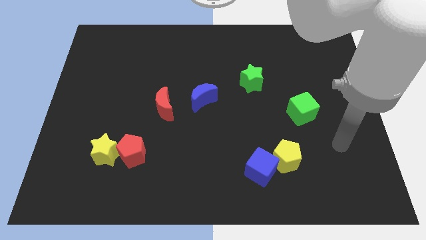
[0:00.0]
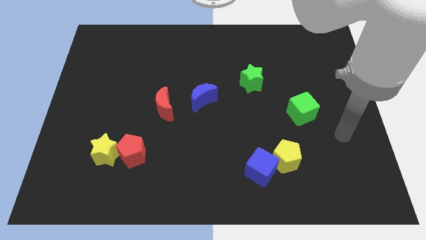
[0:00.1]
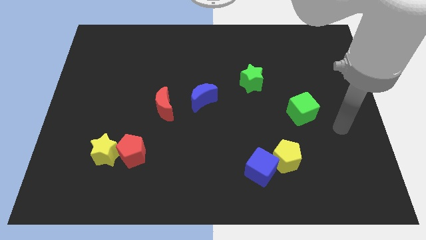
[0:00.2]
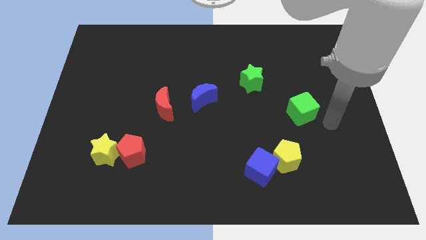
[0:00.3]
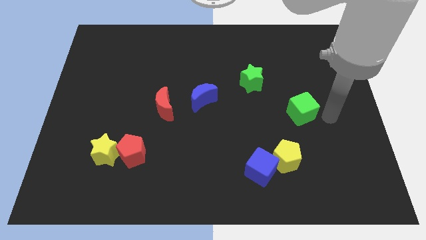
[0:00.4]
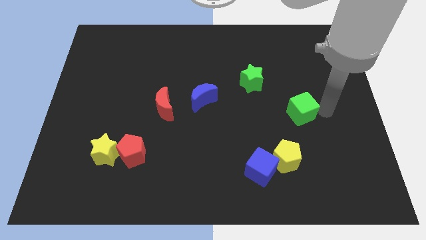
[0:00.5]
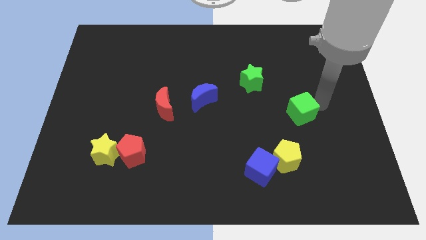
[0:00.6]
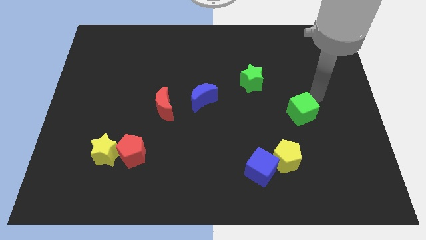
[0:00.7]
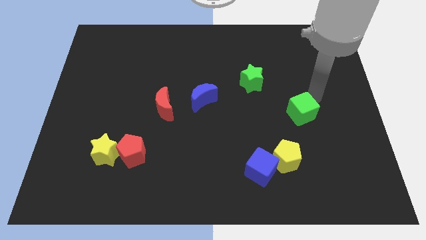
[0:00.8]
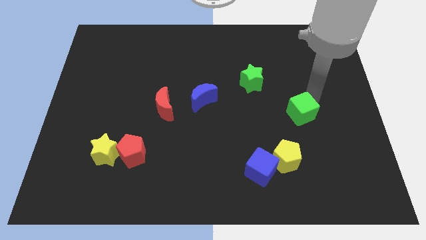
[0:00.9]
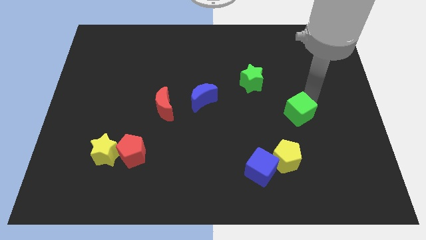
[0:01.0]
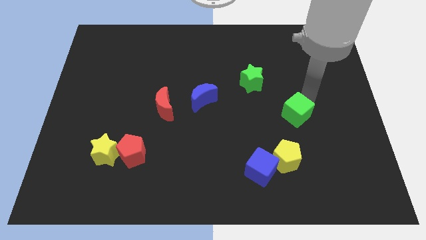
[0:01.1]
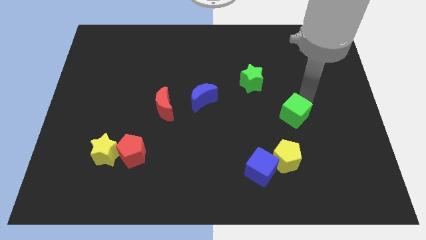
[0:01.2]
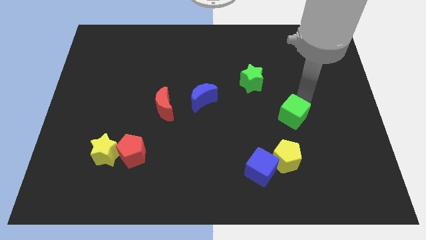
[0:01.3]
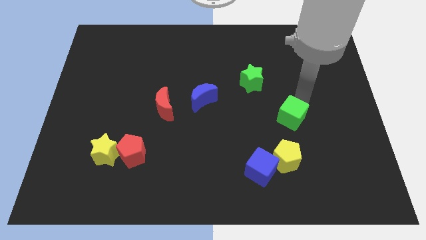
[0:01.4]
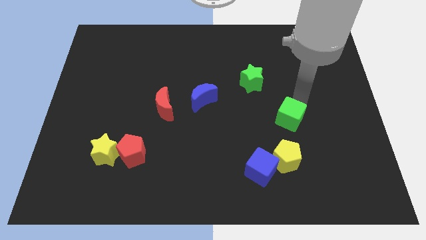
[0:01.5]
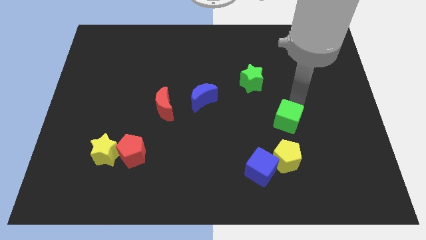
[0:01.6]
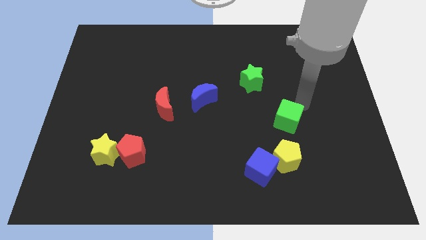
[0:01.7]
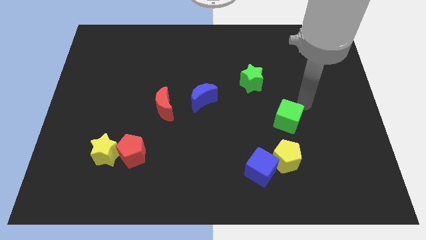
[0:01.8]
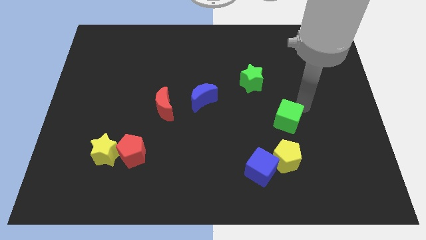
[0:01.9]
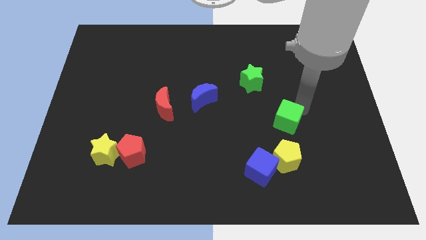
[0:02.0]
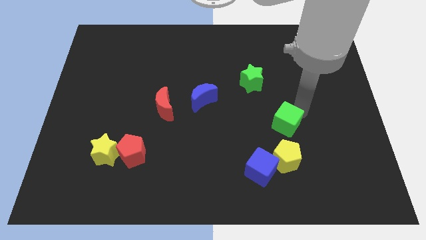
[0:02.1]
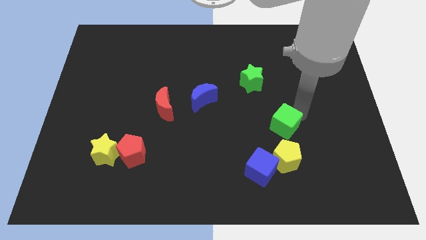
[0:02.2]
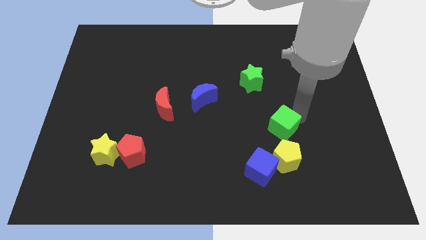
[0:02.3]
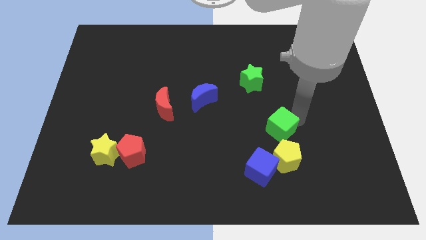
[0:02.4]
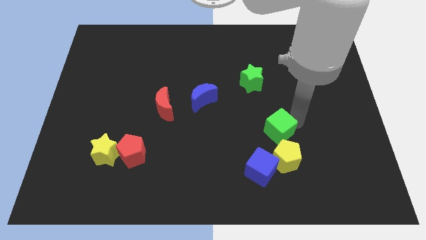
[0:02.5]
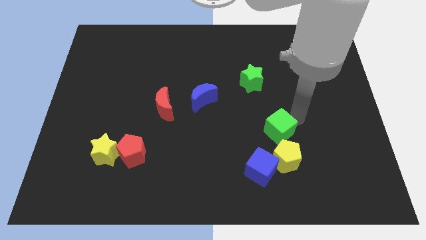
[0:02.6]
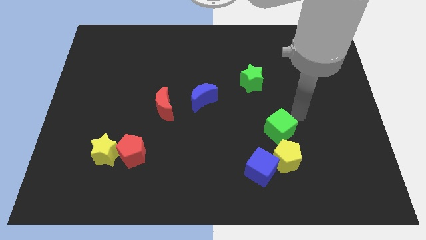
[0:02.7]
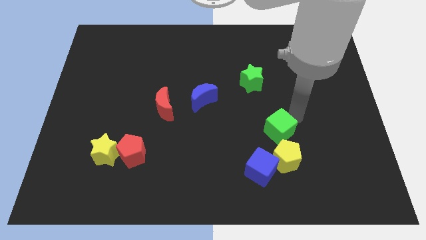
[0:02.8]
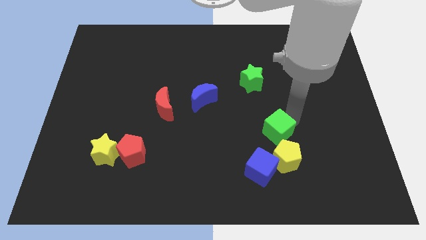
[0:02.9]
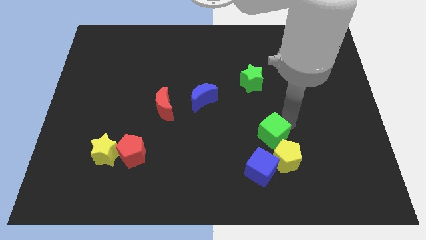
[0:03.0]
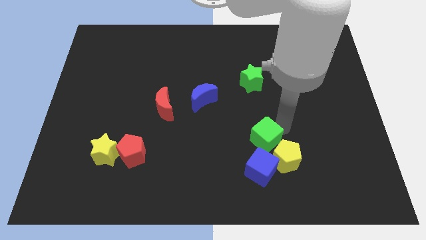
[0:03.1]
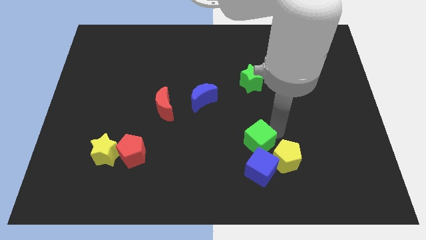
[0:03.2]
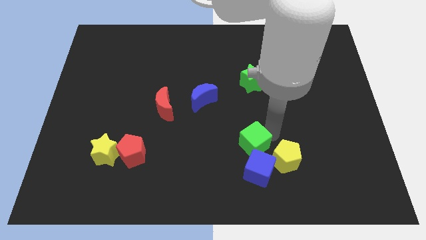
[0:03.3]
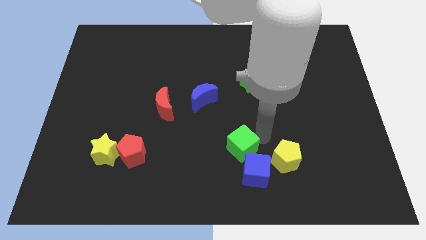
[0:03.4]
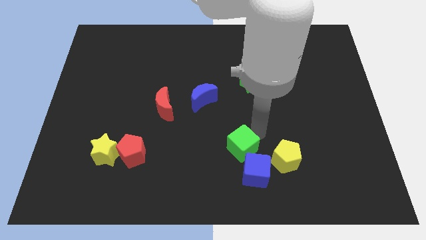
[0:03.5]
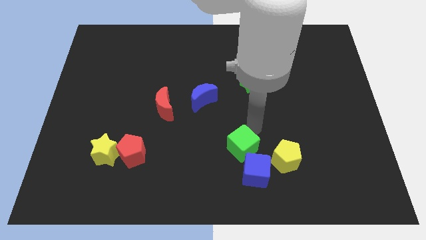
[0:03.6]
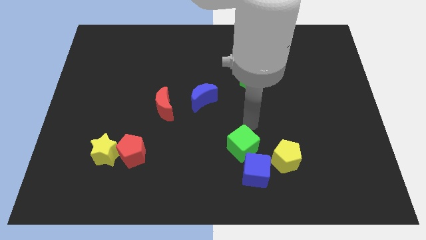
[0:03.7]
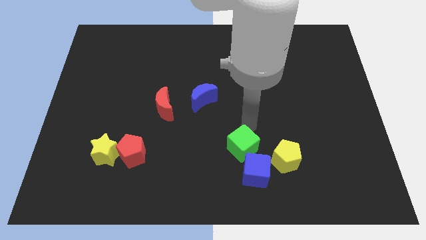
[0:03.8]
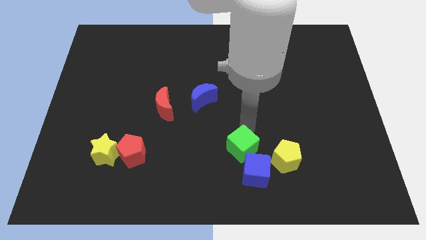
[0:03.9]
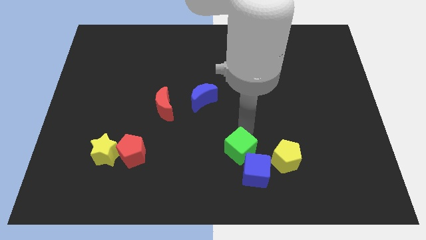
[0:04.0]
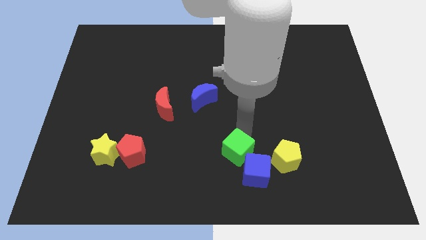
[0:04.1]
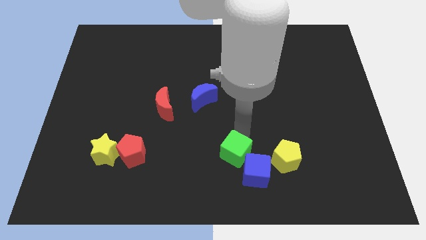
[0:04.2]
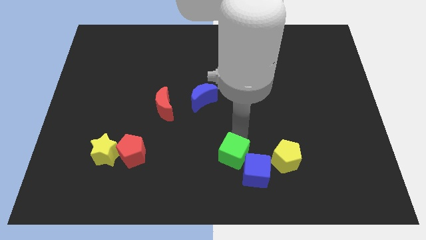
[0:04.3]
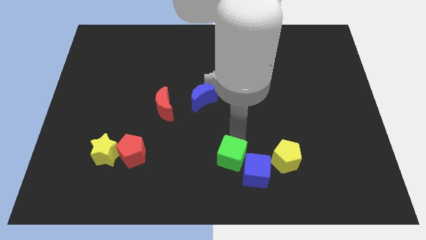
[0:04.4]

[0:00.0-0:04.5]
slide the green cube to the bottom

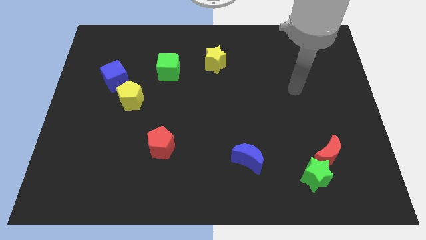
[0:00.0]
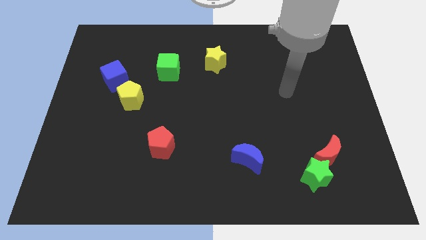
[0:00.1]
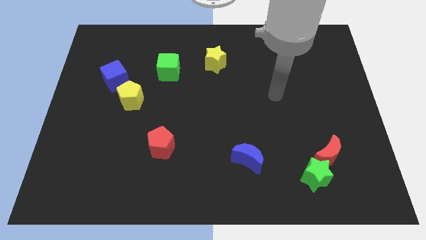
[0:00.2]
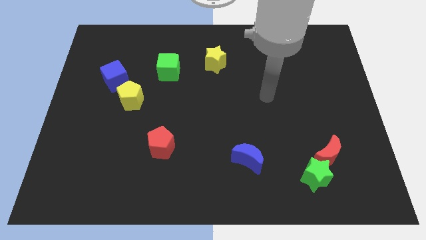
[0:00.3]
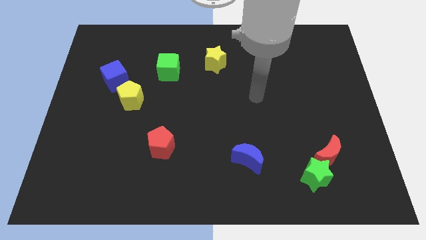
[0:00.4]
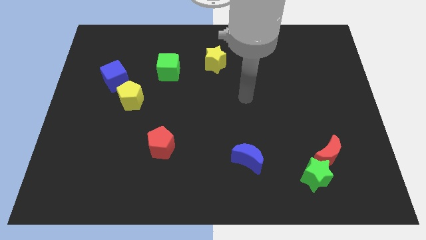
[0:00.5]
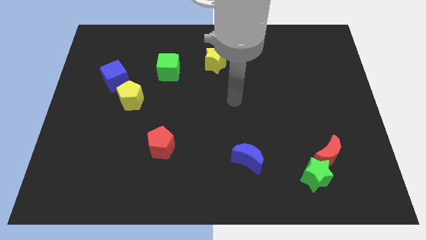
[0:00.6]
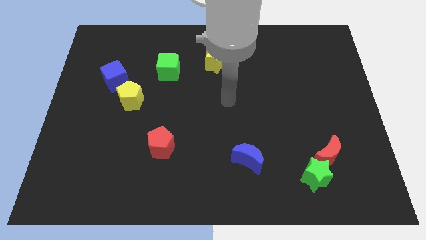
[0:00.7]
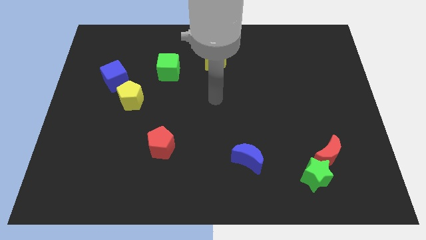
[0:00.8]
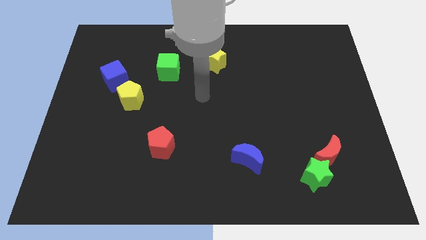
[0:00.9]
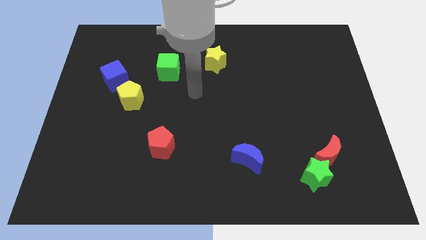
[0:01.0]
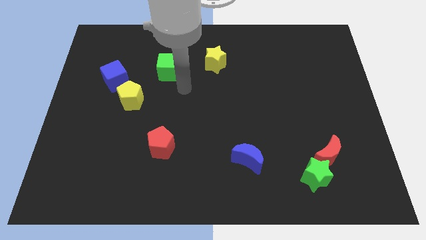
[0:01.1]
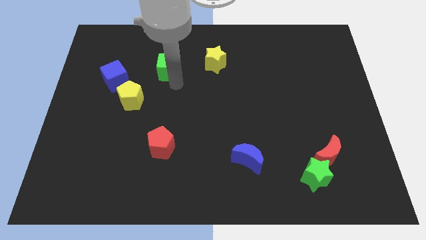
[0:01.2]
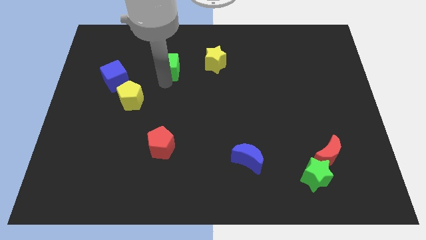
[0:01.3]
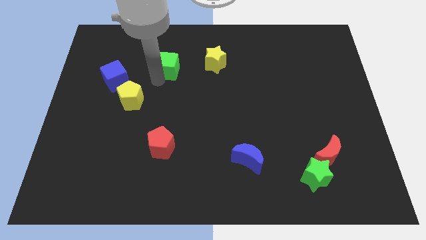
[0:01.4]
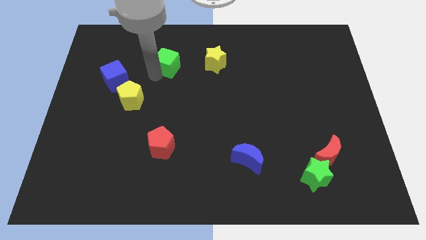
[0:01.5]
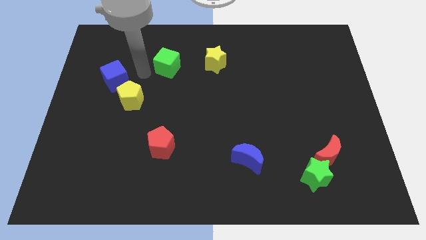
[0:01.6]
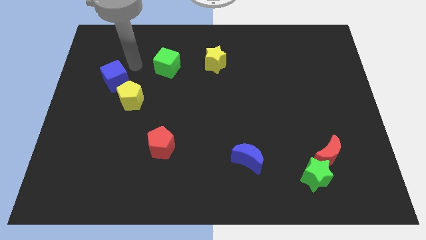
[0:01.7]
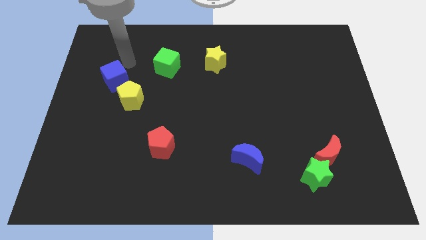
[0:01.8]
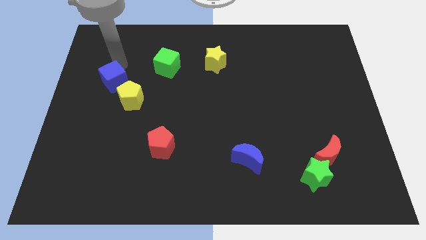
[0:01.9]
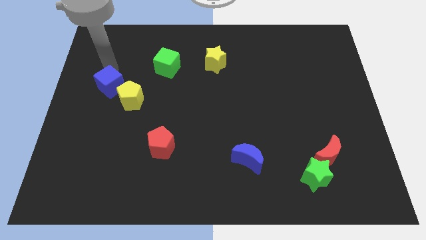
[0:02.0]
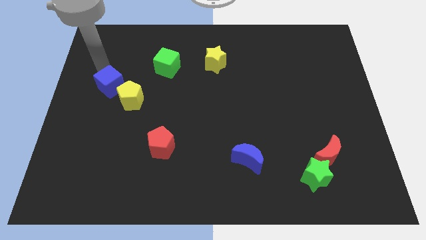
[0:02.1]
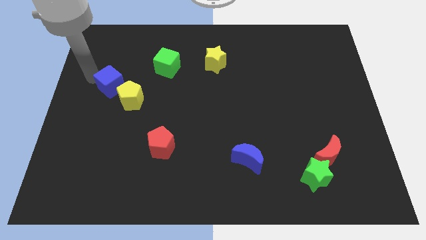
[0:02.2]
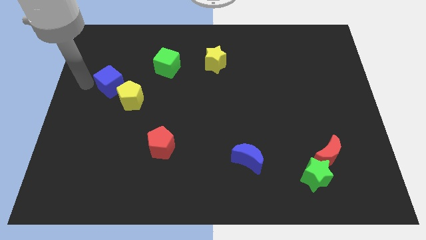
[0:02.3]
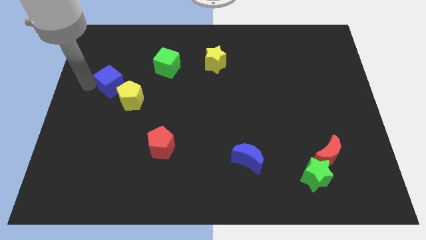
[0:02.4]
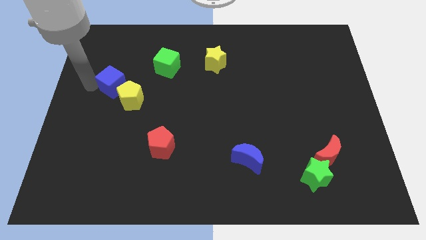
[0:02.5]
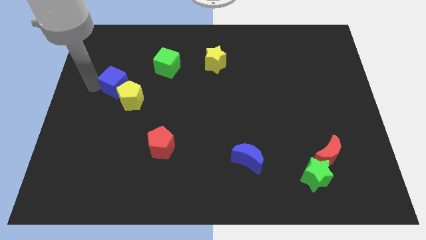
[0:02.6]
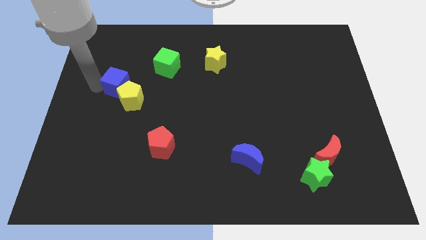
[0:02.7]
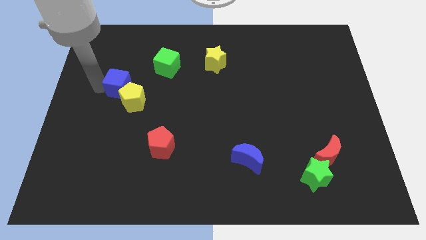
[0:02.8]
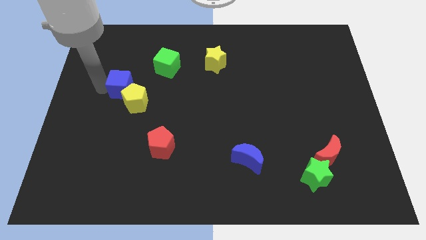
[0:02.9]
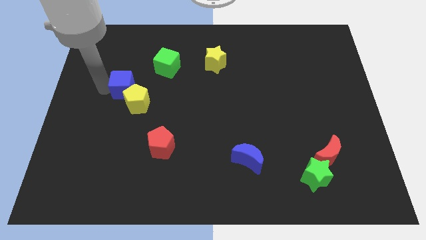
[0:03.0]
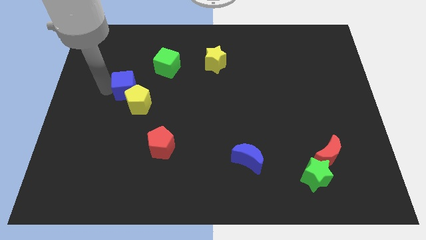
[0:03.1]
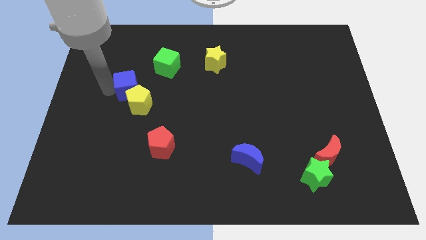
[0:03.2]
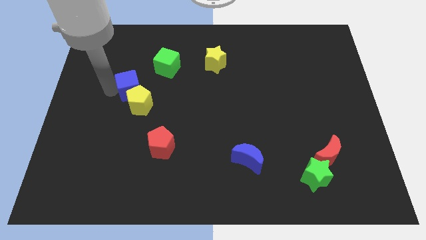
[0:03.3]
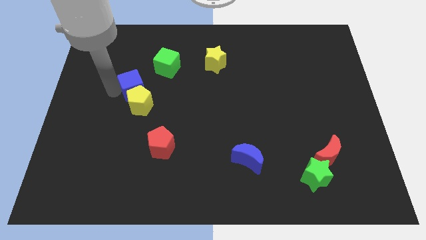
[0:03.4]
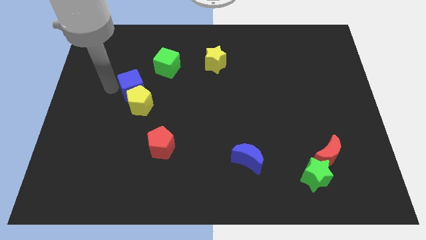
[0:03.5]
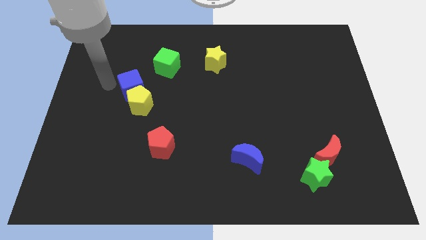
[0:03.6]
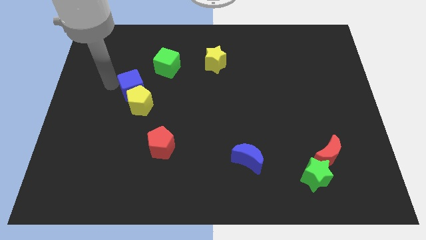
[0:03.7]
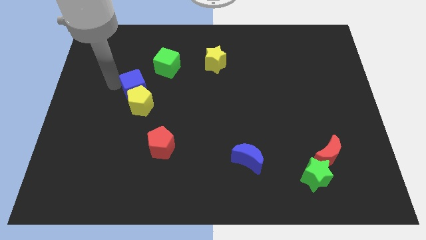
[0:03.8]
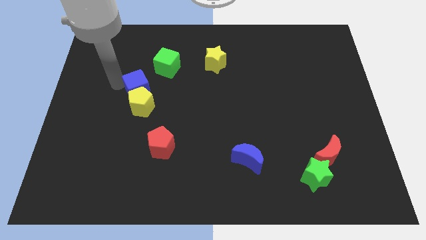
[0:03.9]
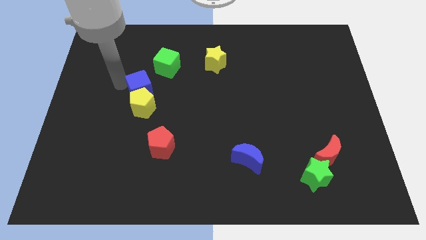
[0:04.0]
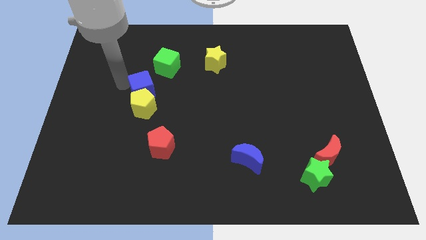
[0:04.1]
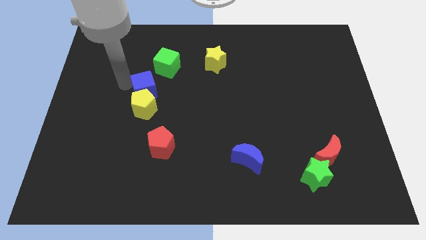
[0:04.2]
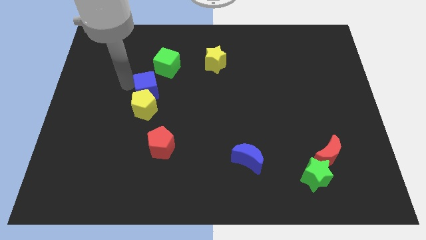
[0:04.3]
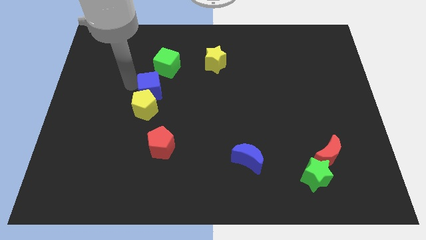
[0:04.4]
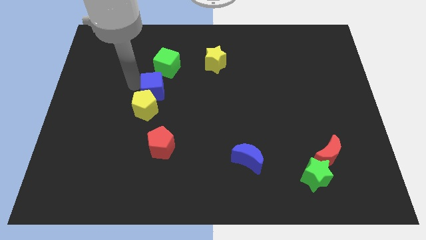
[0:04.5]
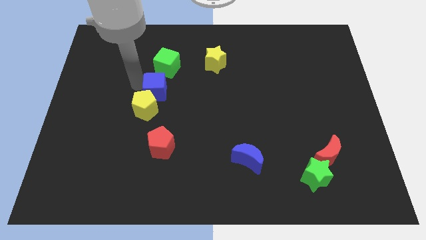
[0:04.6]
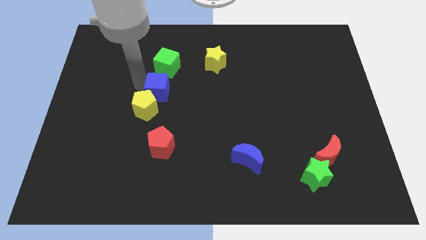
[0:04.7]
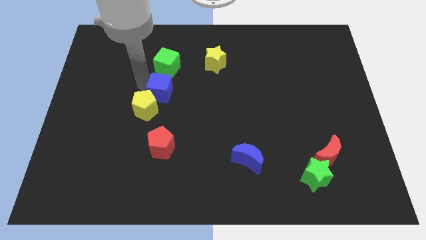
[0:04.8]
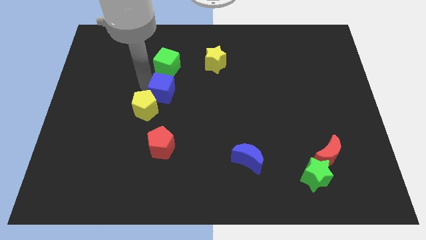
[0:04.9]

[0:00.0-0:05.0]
put the blue cube to the center
